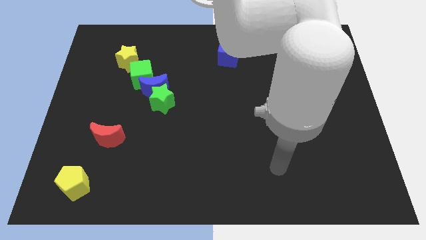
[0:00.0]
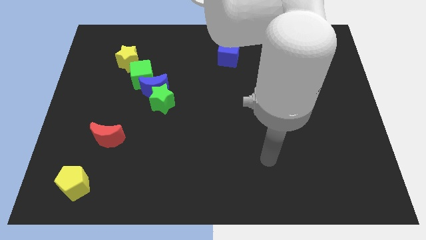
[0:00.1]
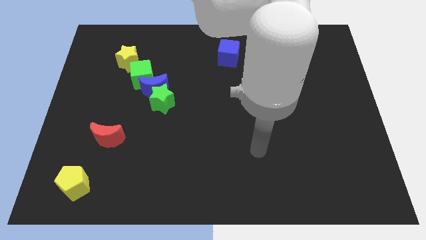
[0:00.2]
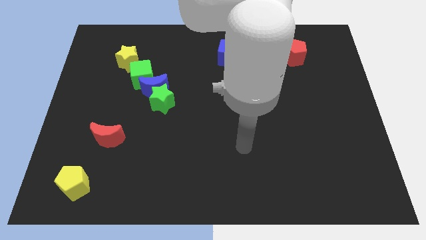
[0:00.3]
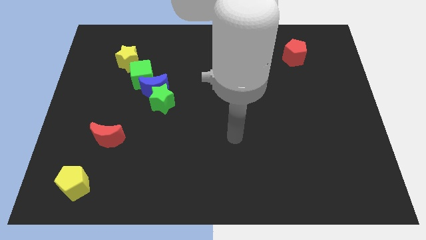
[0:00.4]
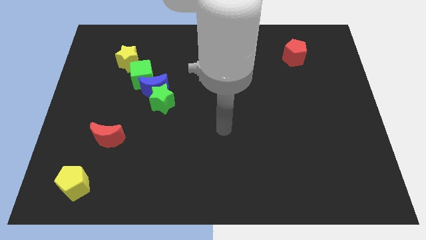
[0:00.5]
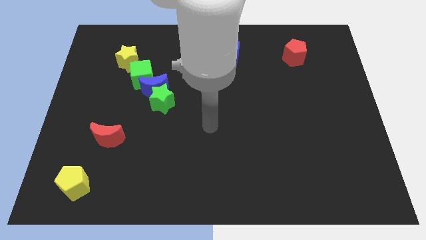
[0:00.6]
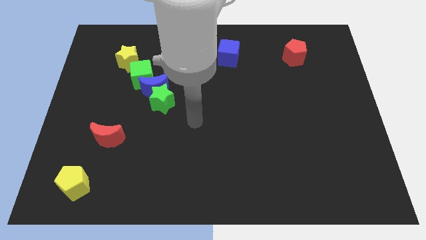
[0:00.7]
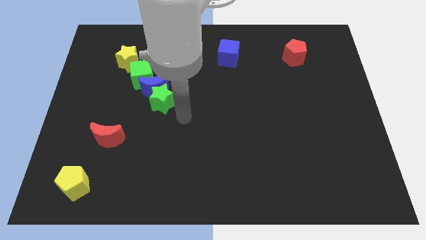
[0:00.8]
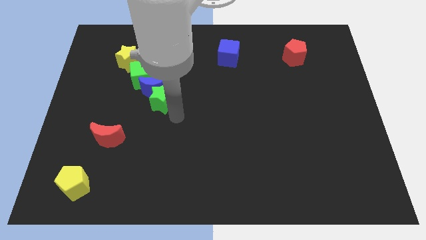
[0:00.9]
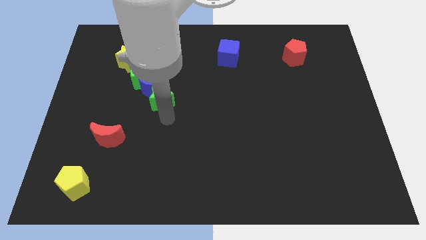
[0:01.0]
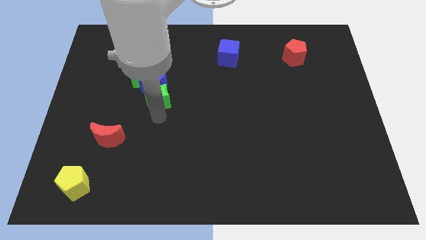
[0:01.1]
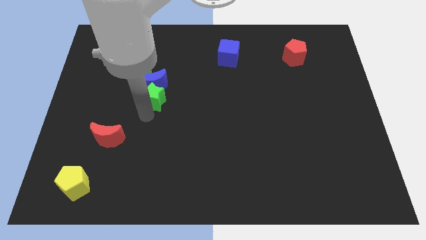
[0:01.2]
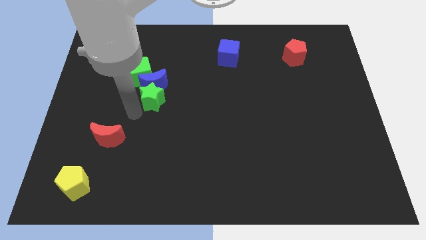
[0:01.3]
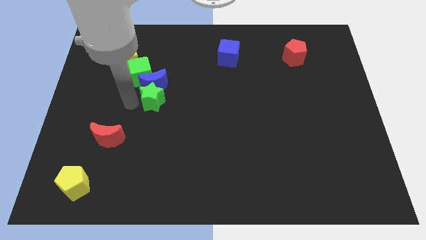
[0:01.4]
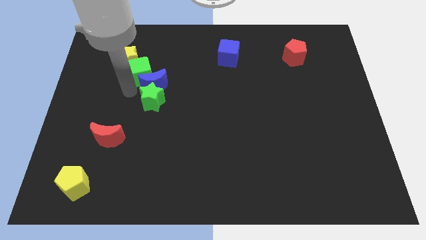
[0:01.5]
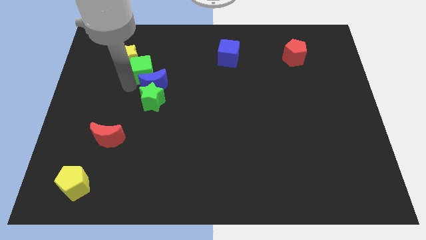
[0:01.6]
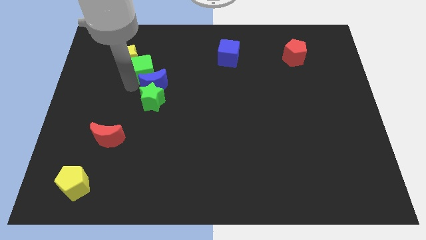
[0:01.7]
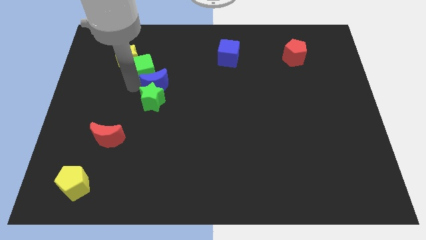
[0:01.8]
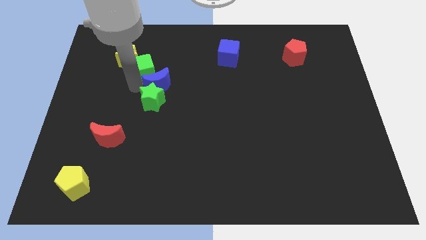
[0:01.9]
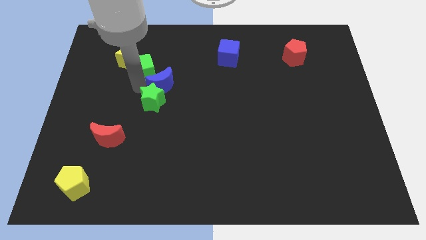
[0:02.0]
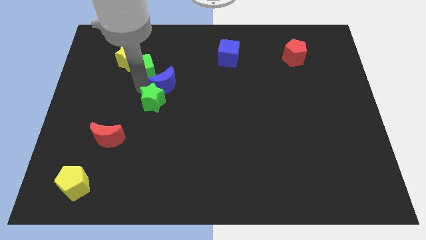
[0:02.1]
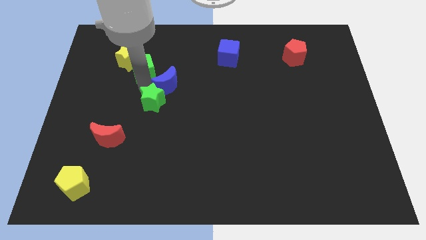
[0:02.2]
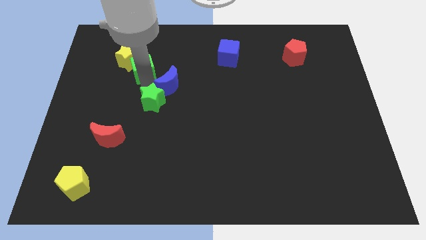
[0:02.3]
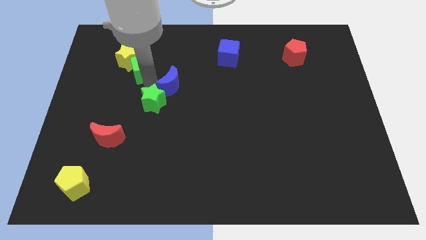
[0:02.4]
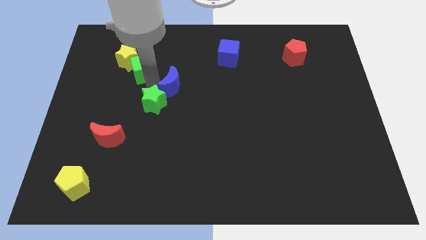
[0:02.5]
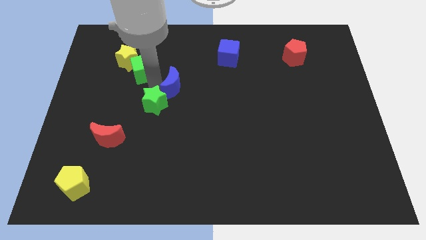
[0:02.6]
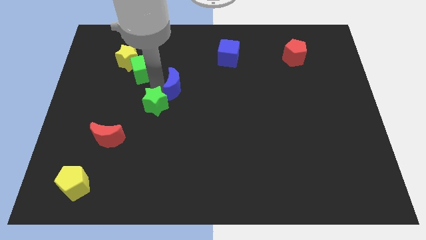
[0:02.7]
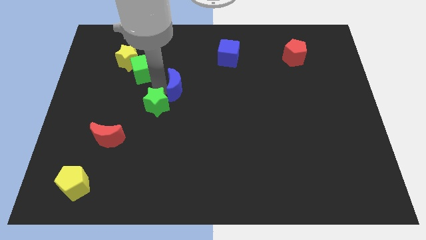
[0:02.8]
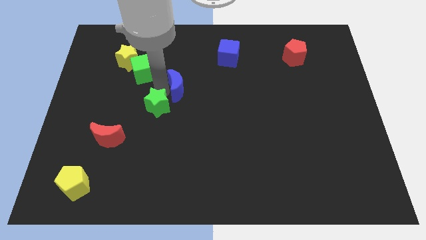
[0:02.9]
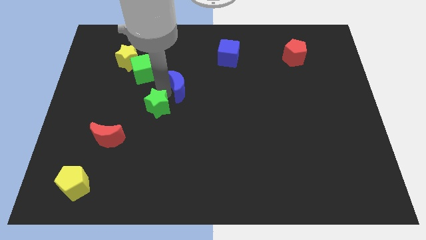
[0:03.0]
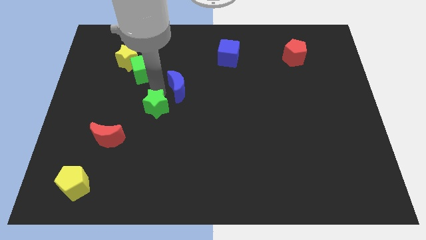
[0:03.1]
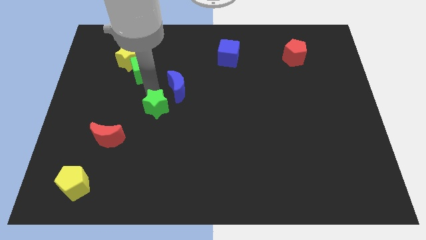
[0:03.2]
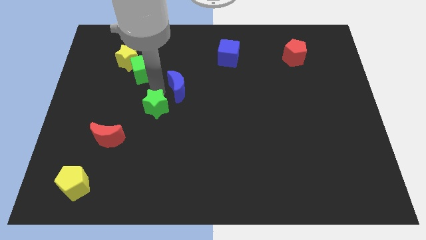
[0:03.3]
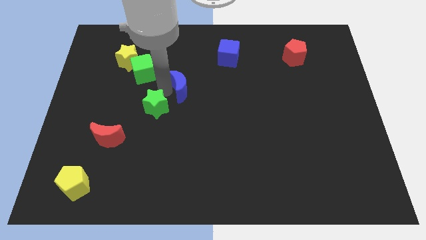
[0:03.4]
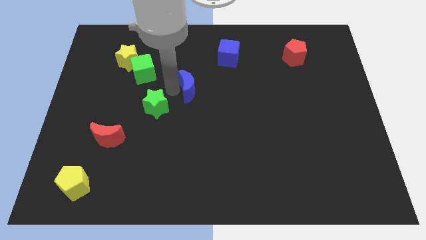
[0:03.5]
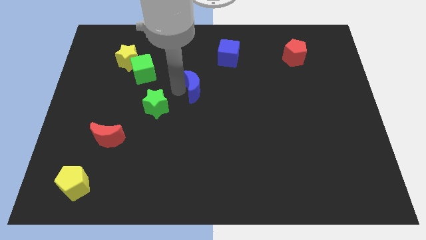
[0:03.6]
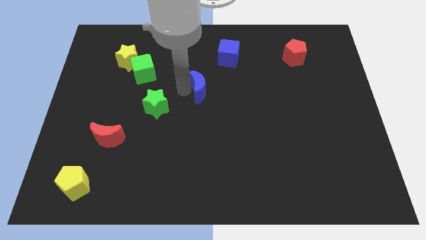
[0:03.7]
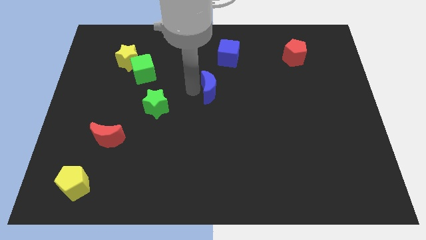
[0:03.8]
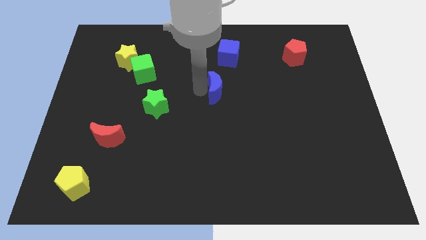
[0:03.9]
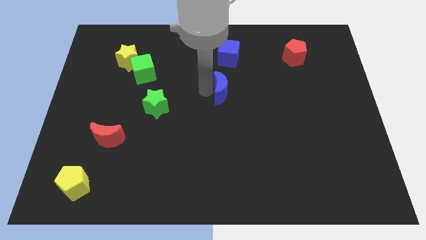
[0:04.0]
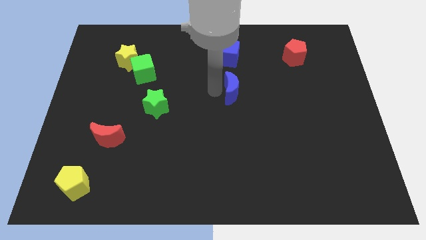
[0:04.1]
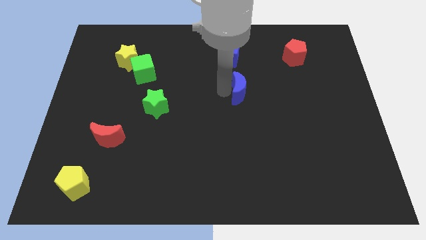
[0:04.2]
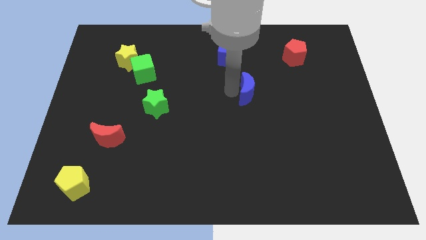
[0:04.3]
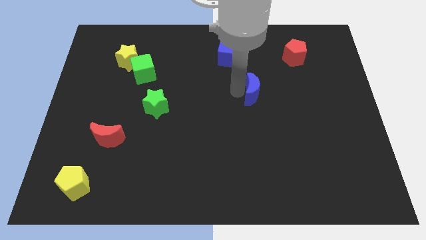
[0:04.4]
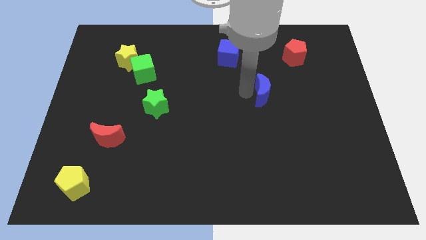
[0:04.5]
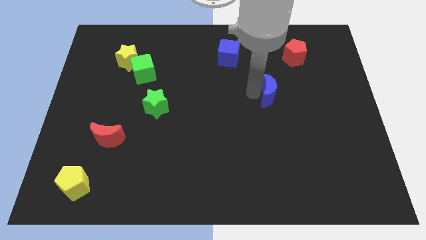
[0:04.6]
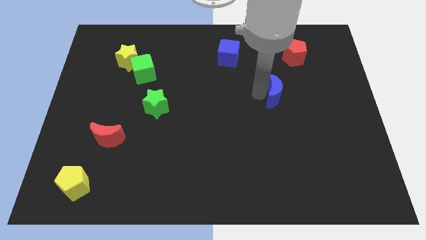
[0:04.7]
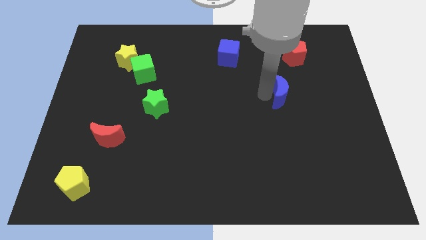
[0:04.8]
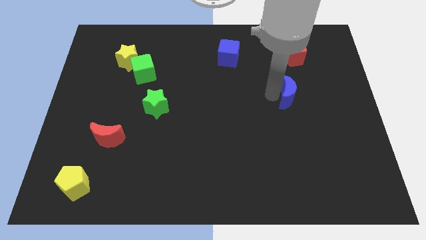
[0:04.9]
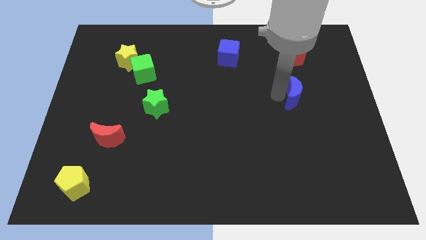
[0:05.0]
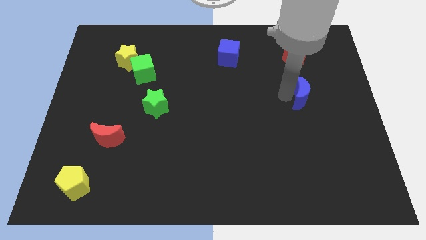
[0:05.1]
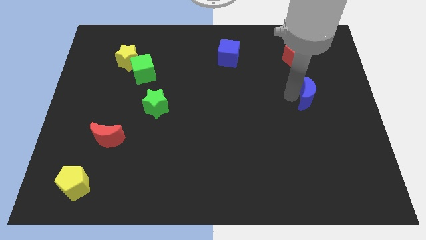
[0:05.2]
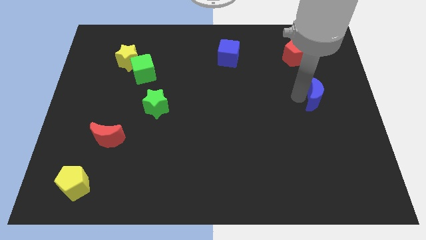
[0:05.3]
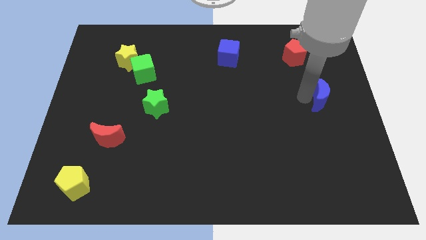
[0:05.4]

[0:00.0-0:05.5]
push the blue moon to the right side of the board
